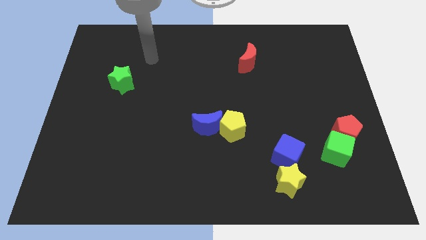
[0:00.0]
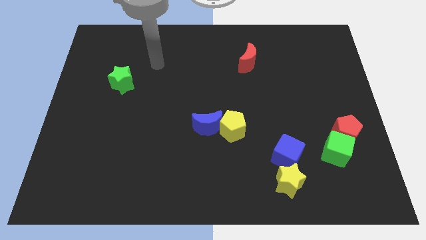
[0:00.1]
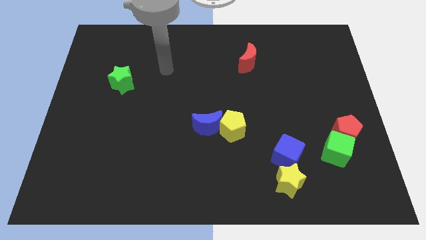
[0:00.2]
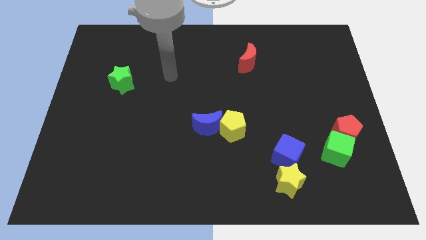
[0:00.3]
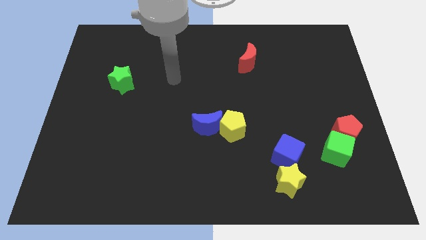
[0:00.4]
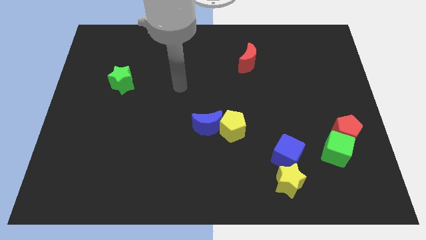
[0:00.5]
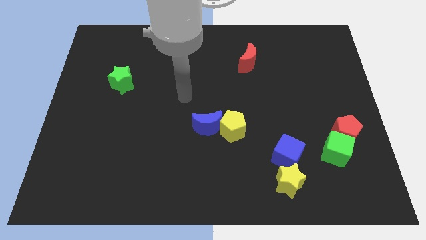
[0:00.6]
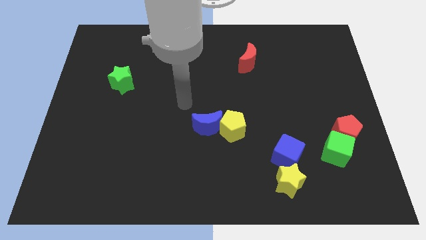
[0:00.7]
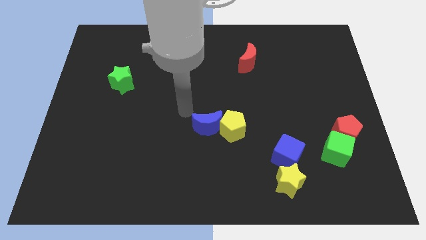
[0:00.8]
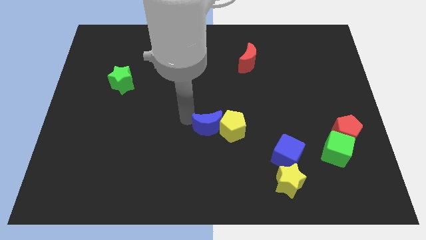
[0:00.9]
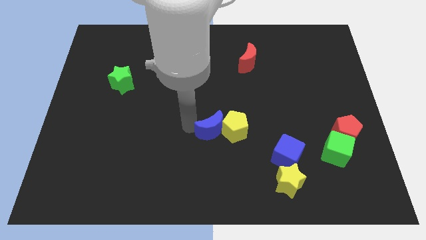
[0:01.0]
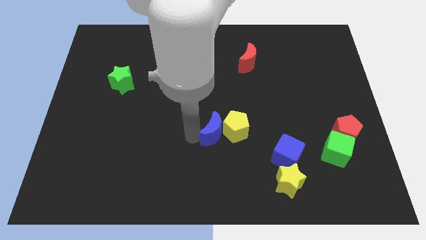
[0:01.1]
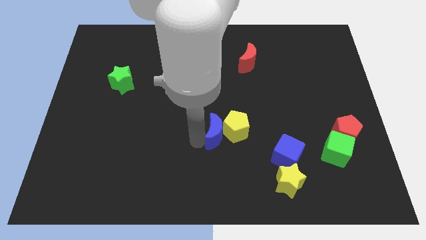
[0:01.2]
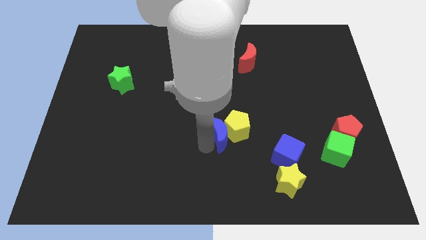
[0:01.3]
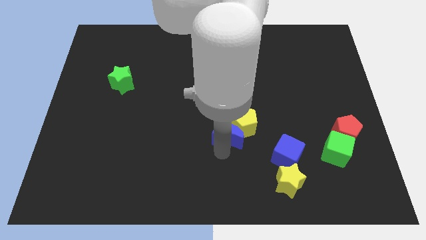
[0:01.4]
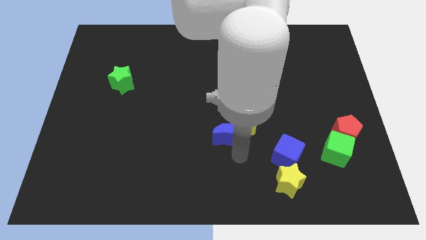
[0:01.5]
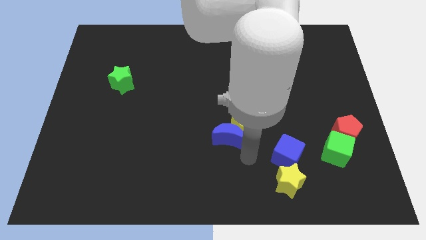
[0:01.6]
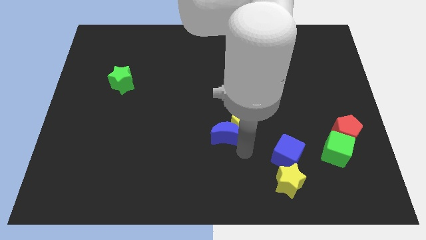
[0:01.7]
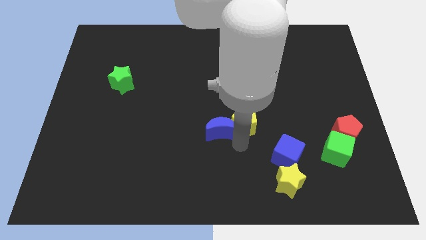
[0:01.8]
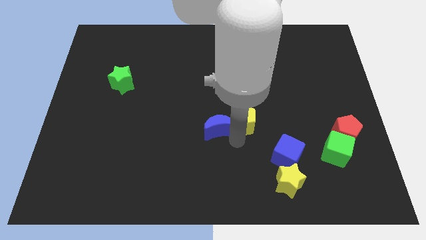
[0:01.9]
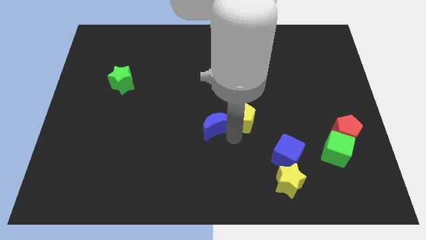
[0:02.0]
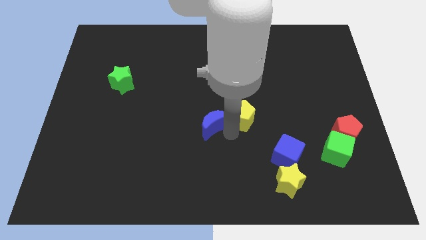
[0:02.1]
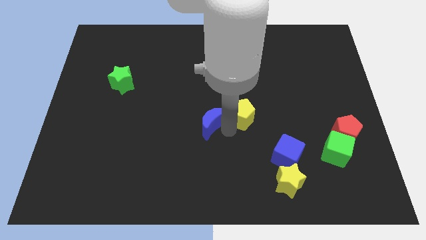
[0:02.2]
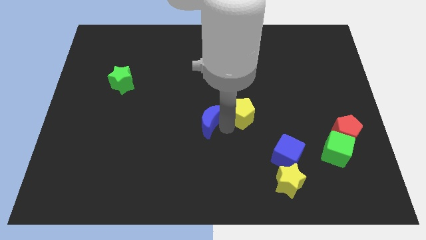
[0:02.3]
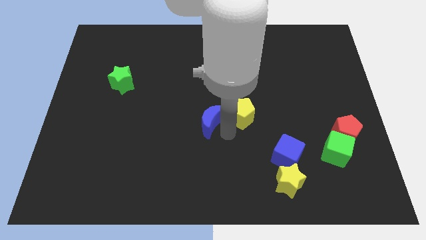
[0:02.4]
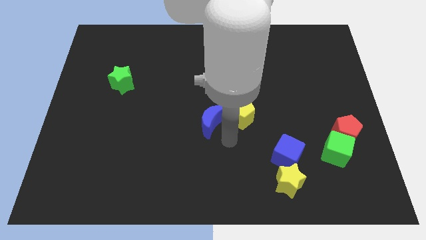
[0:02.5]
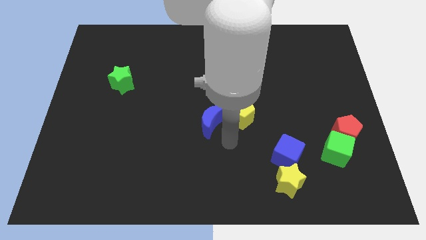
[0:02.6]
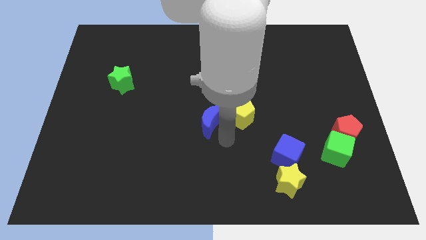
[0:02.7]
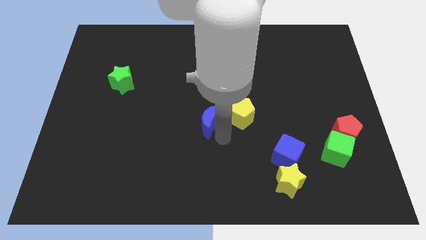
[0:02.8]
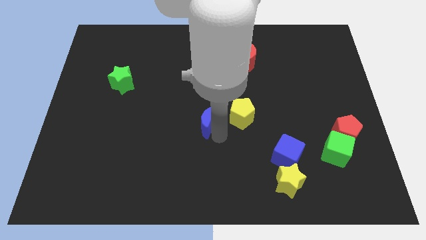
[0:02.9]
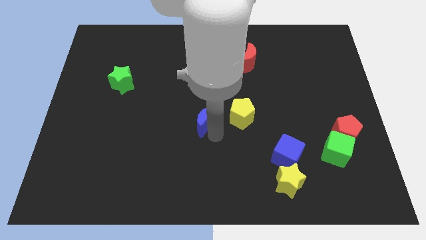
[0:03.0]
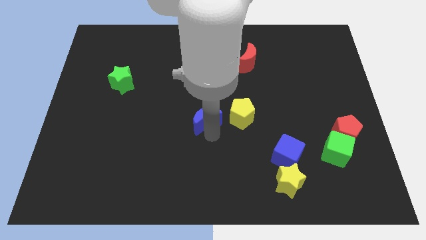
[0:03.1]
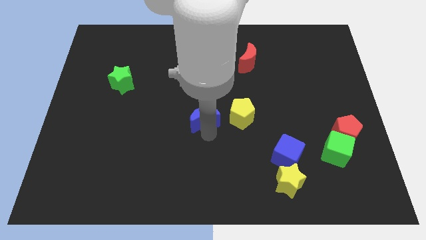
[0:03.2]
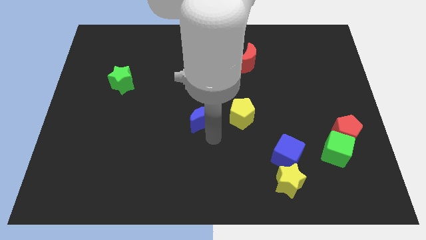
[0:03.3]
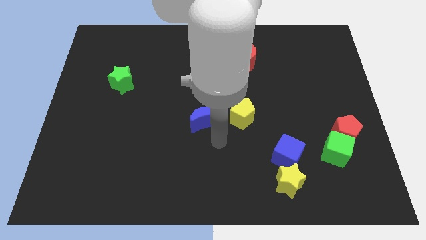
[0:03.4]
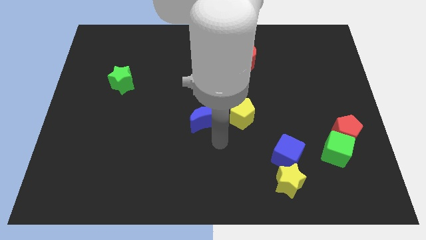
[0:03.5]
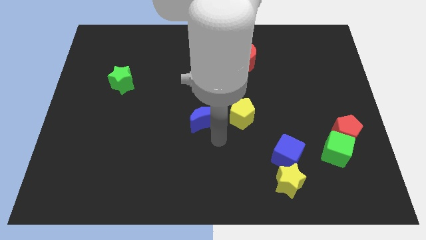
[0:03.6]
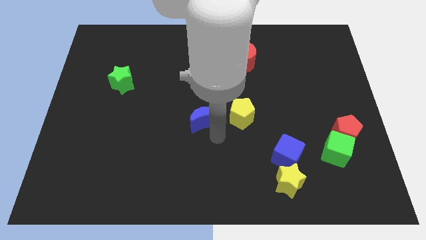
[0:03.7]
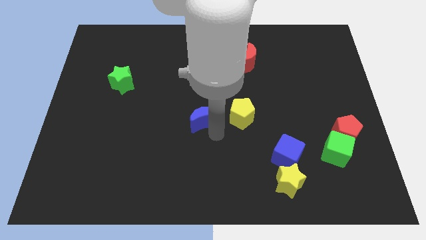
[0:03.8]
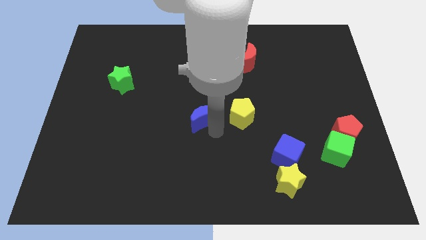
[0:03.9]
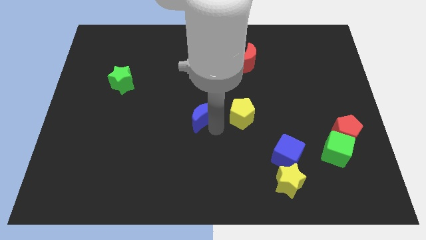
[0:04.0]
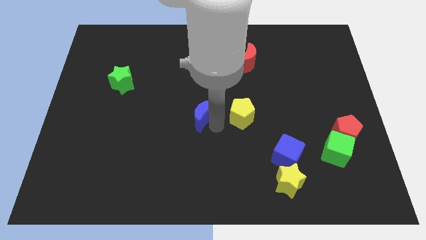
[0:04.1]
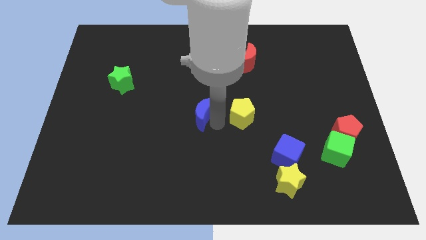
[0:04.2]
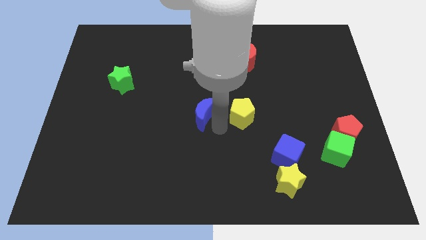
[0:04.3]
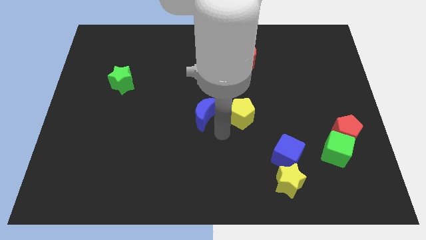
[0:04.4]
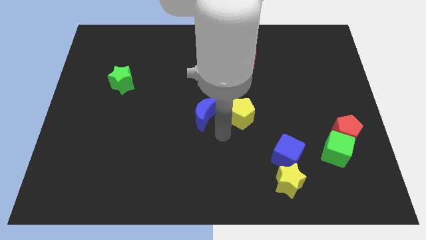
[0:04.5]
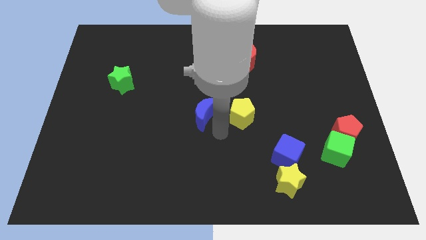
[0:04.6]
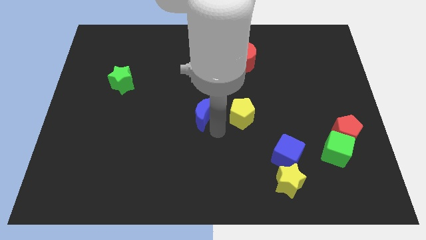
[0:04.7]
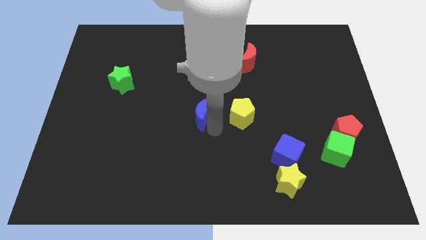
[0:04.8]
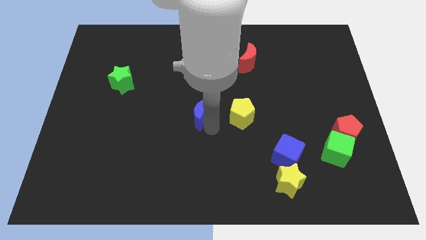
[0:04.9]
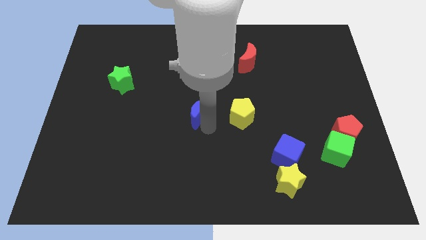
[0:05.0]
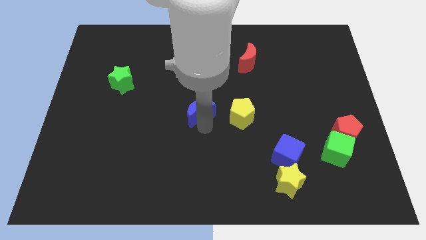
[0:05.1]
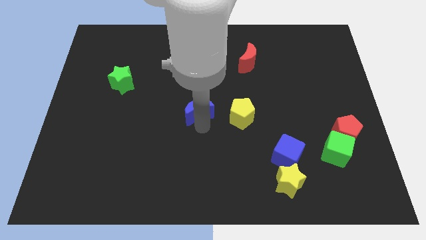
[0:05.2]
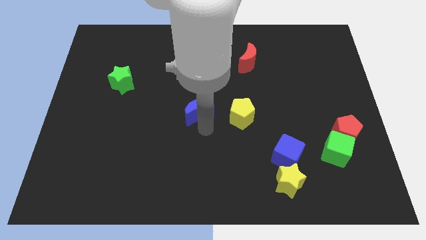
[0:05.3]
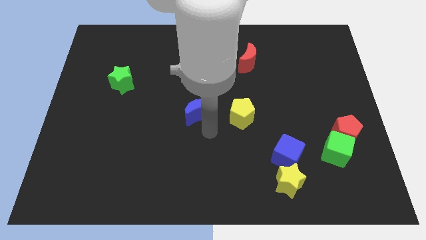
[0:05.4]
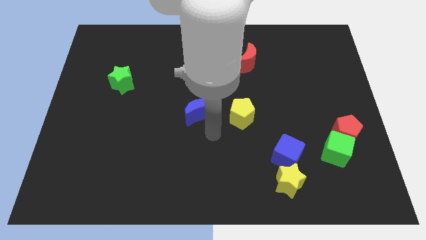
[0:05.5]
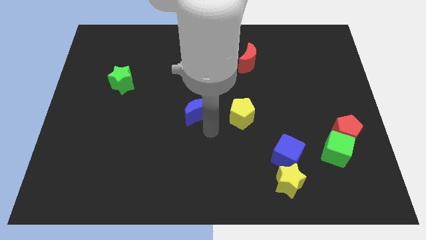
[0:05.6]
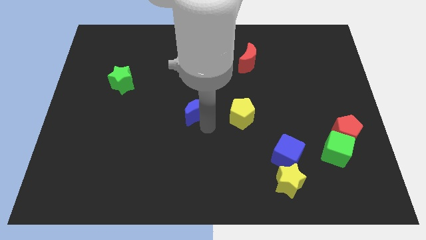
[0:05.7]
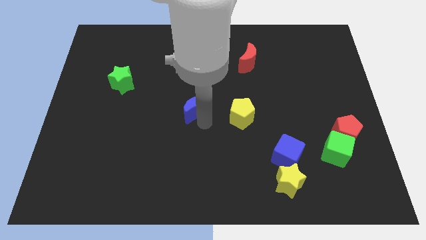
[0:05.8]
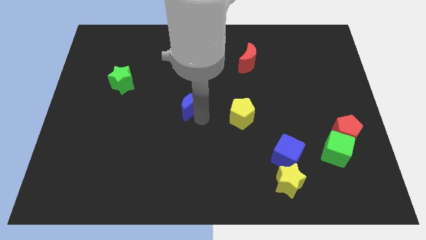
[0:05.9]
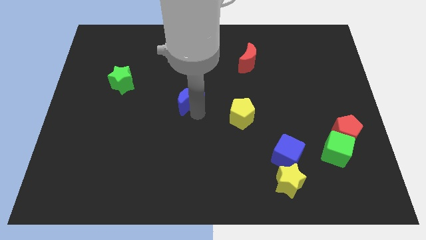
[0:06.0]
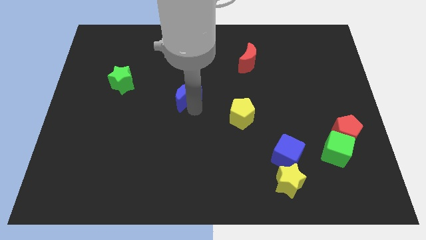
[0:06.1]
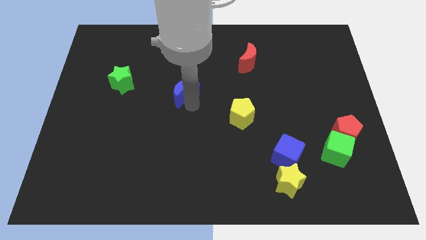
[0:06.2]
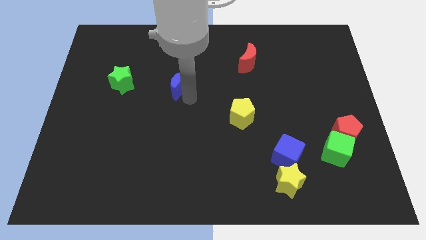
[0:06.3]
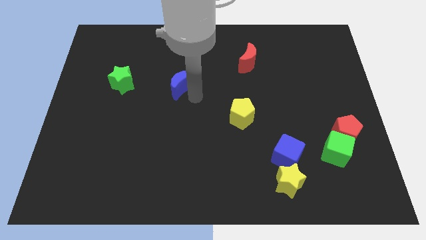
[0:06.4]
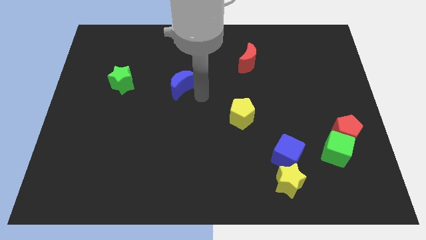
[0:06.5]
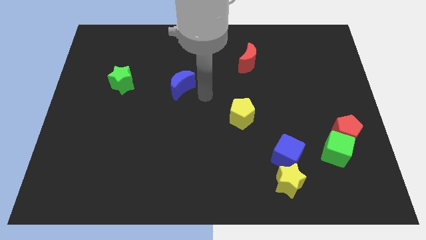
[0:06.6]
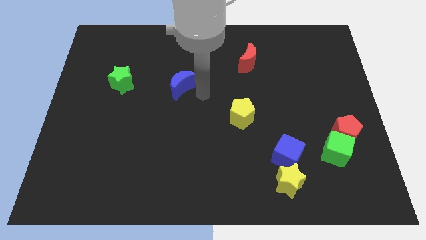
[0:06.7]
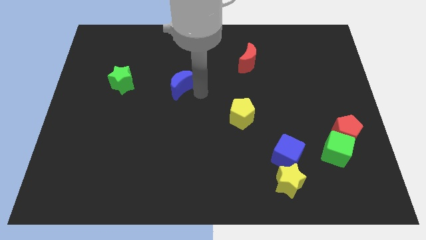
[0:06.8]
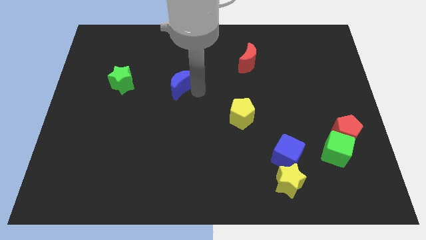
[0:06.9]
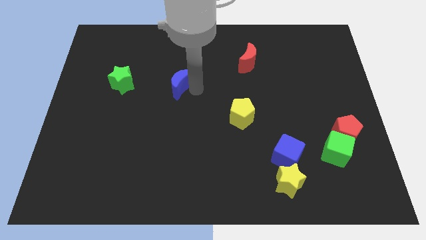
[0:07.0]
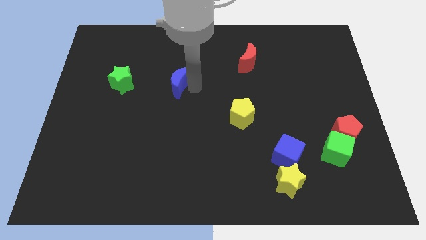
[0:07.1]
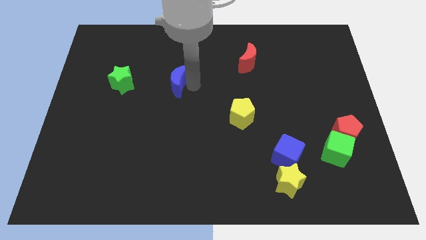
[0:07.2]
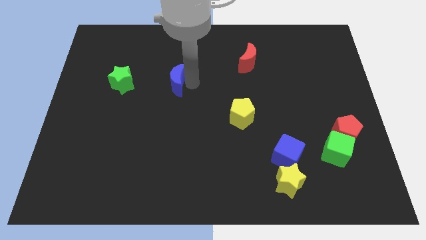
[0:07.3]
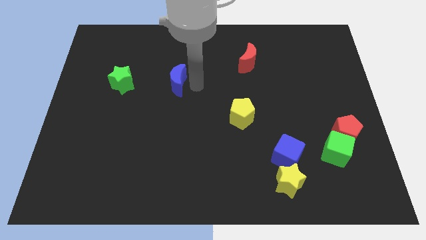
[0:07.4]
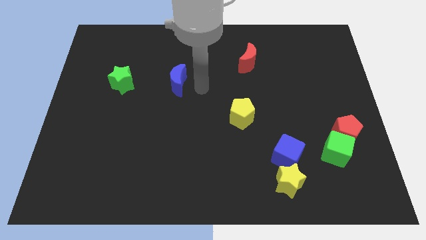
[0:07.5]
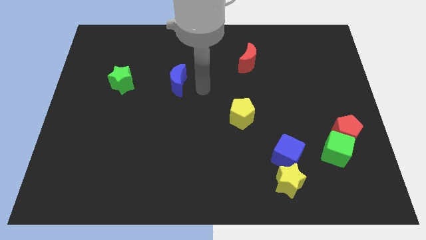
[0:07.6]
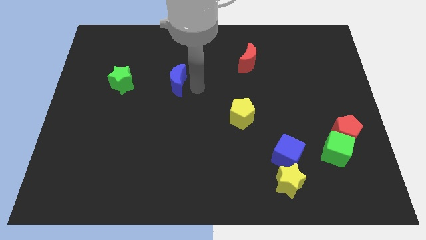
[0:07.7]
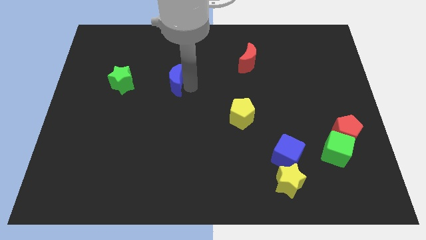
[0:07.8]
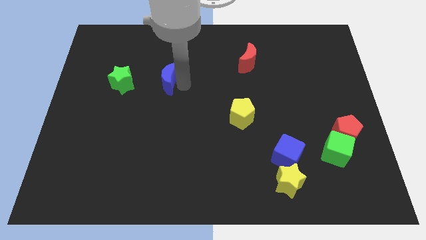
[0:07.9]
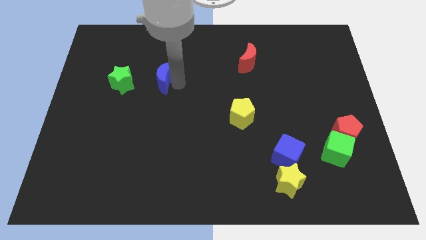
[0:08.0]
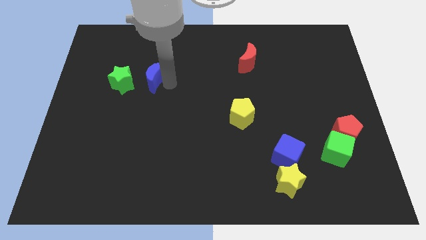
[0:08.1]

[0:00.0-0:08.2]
push the blue moon up and left
